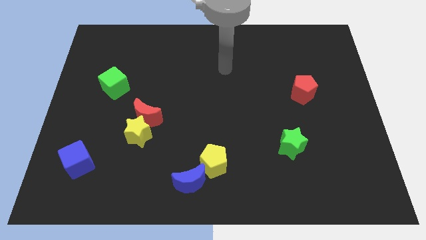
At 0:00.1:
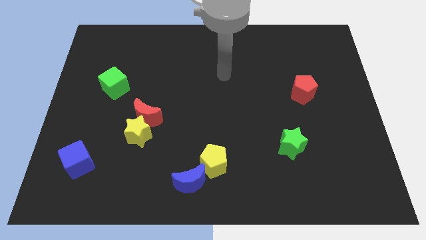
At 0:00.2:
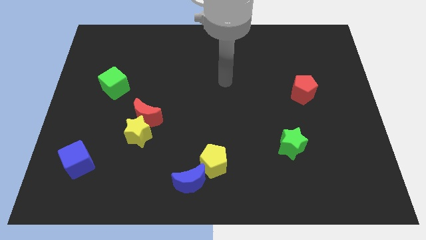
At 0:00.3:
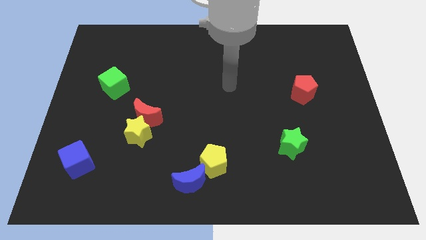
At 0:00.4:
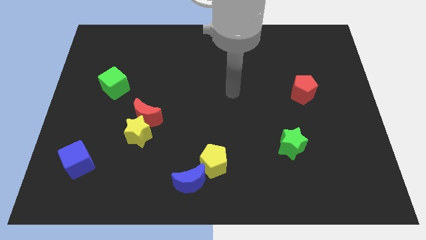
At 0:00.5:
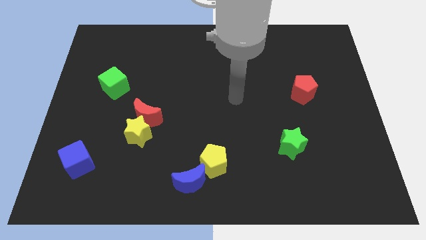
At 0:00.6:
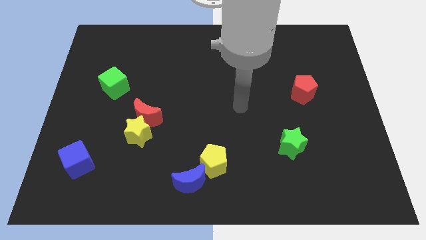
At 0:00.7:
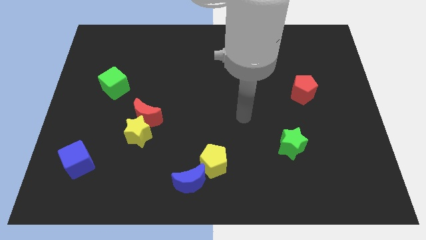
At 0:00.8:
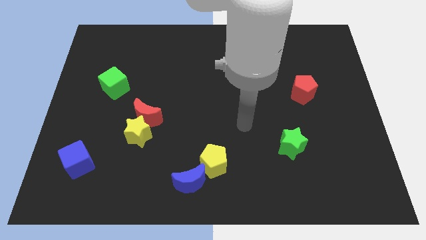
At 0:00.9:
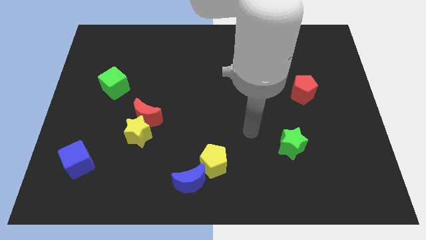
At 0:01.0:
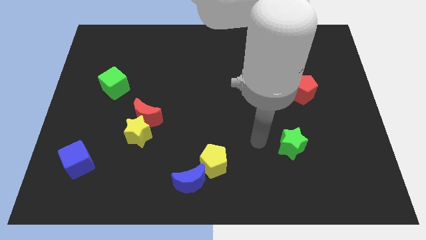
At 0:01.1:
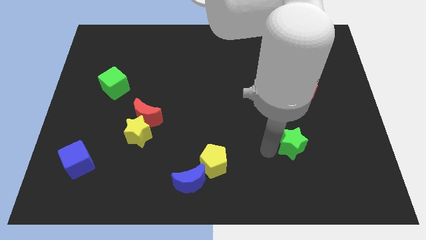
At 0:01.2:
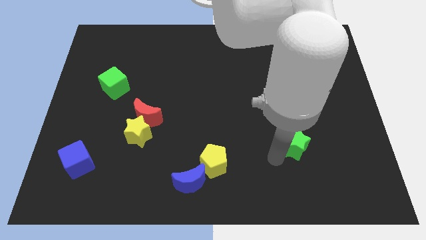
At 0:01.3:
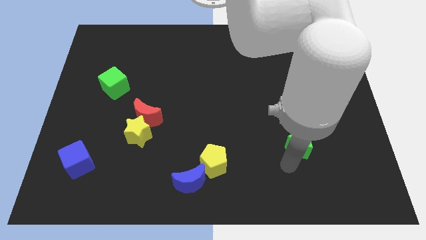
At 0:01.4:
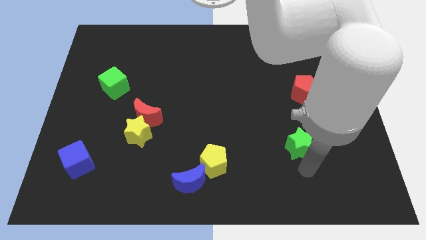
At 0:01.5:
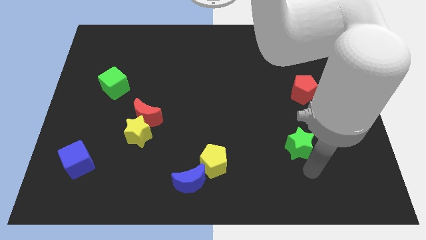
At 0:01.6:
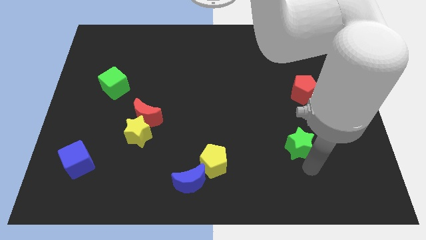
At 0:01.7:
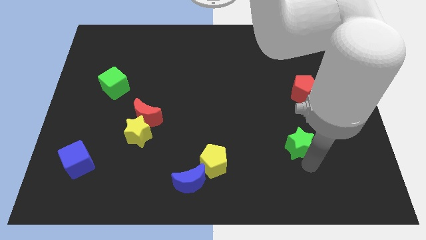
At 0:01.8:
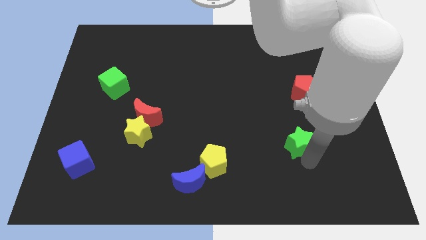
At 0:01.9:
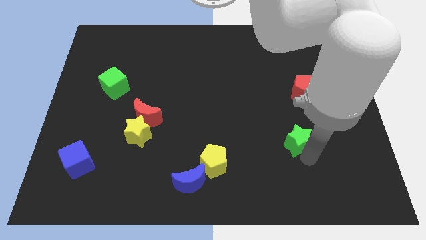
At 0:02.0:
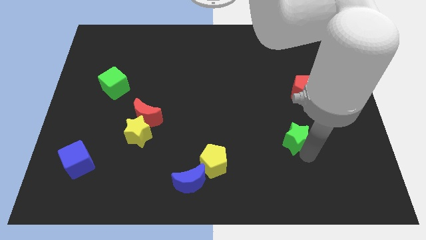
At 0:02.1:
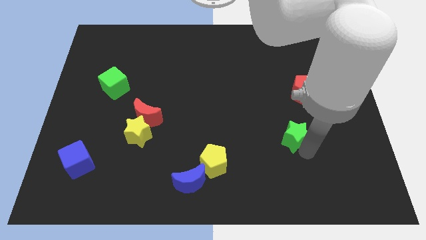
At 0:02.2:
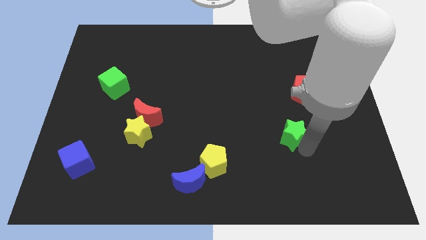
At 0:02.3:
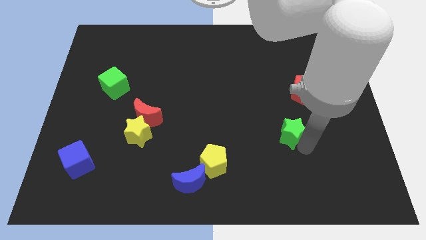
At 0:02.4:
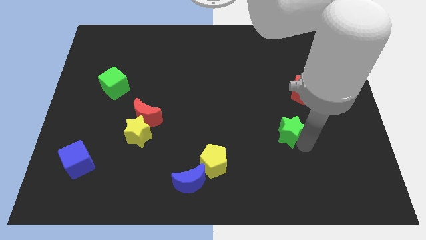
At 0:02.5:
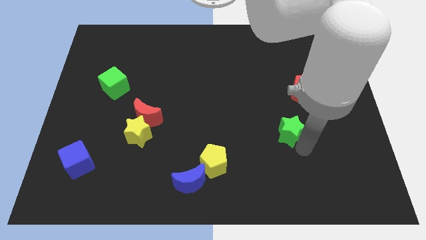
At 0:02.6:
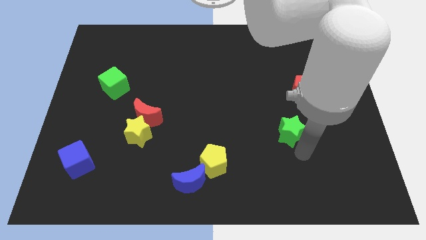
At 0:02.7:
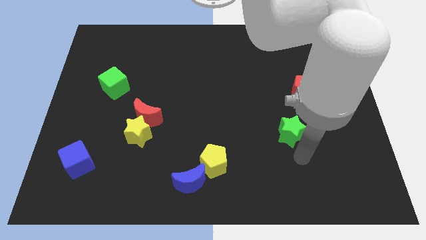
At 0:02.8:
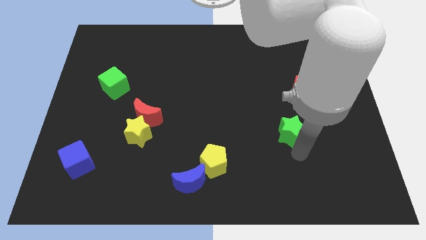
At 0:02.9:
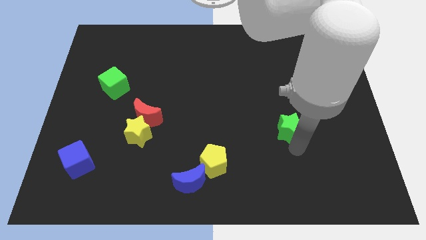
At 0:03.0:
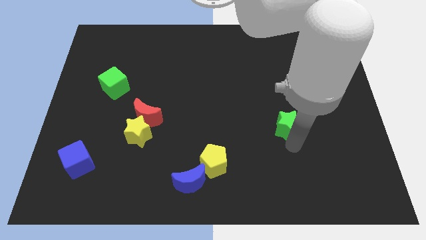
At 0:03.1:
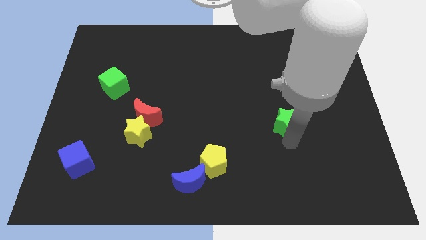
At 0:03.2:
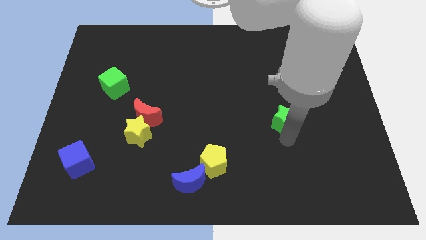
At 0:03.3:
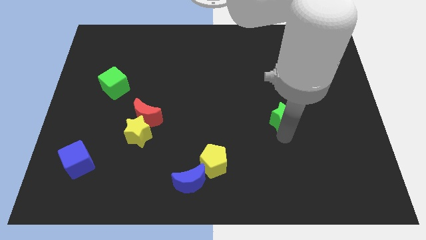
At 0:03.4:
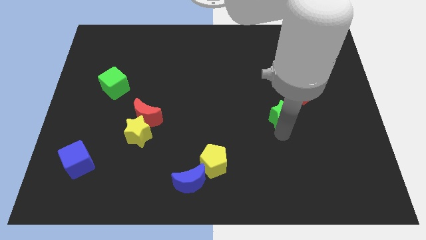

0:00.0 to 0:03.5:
move the green star slightly up

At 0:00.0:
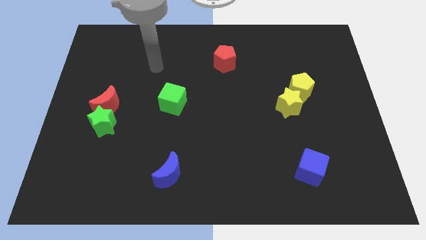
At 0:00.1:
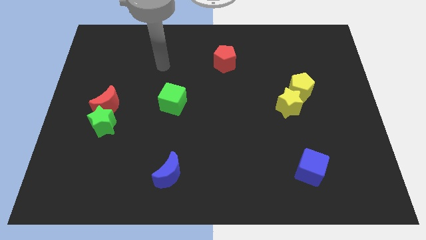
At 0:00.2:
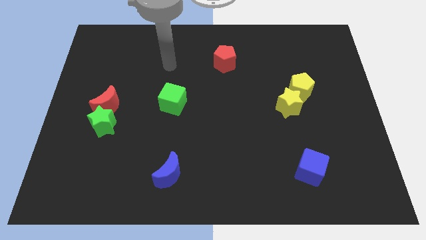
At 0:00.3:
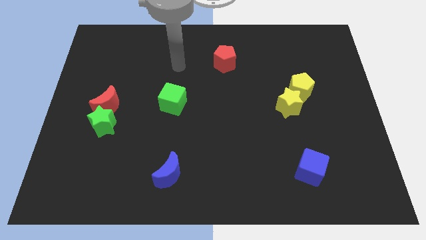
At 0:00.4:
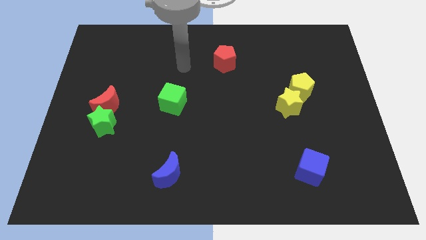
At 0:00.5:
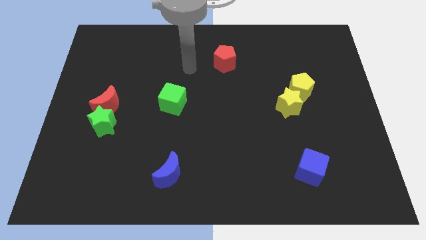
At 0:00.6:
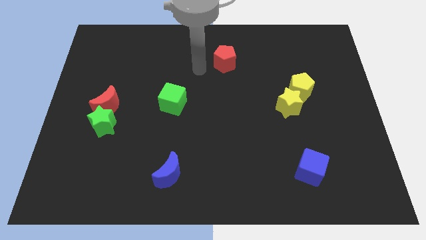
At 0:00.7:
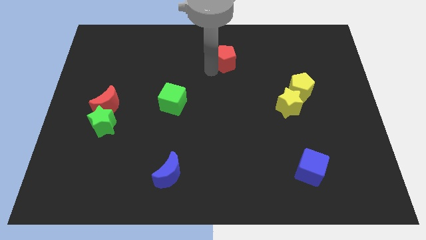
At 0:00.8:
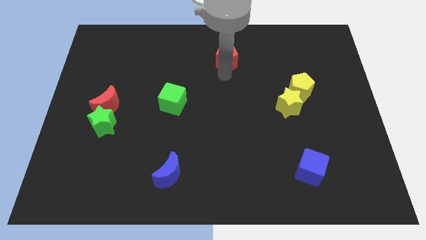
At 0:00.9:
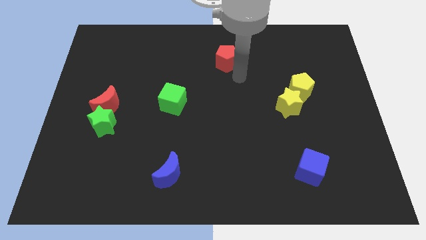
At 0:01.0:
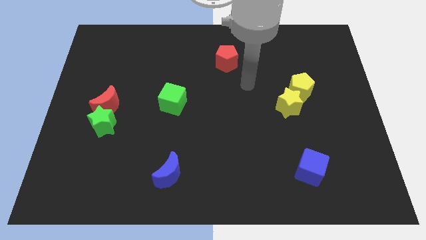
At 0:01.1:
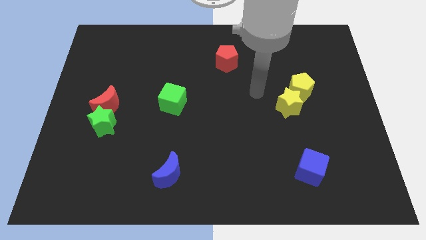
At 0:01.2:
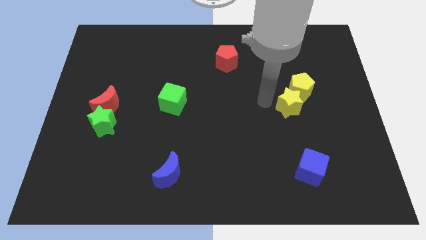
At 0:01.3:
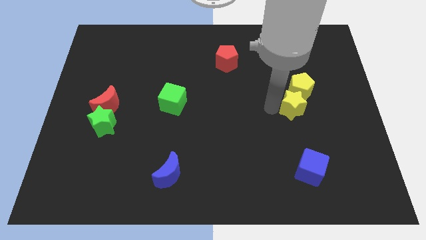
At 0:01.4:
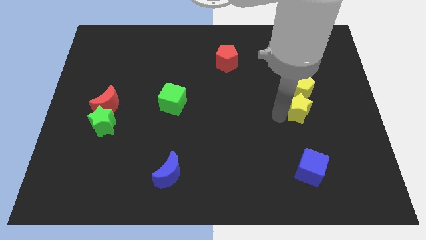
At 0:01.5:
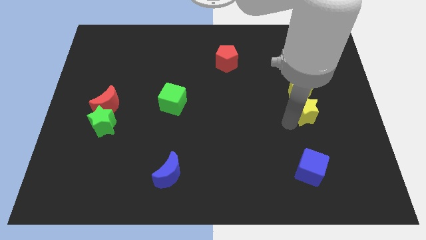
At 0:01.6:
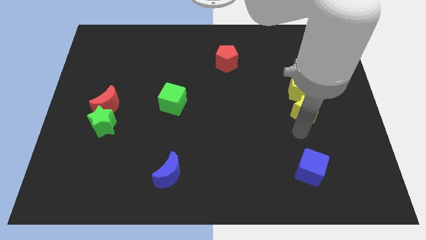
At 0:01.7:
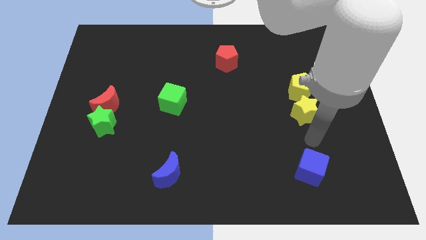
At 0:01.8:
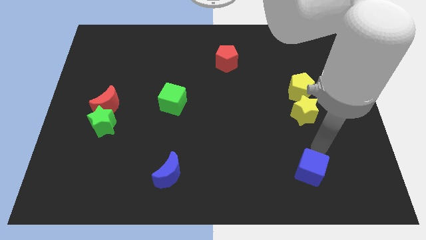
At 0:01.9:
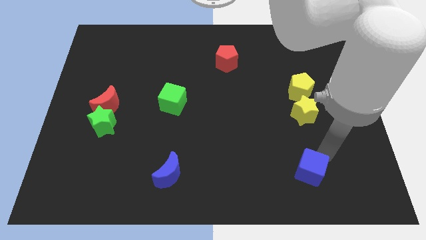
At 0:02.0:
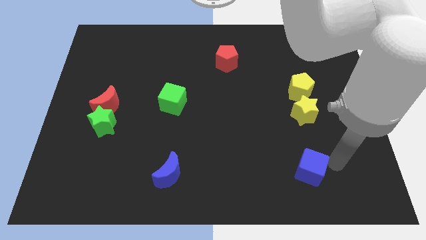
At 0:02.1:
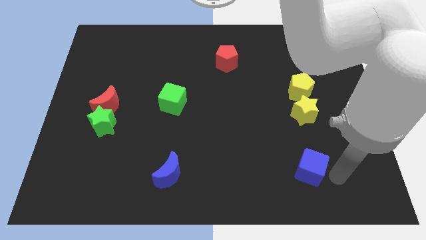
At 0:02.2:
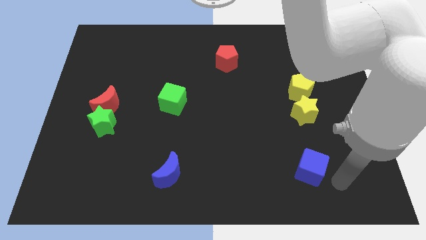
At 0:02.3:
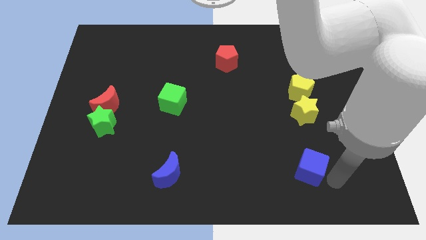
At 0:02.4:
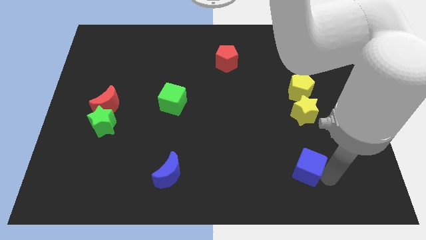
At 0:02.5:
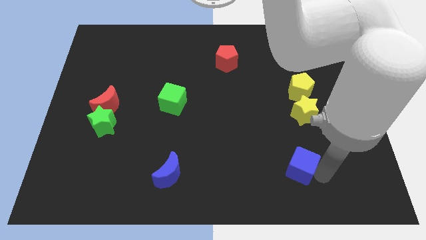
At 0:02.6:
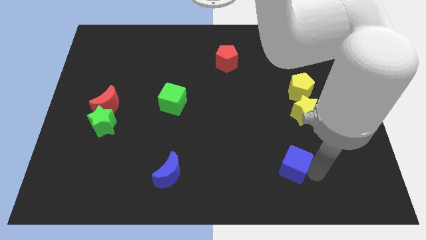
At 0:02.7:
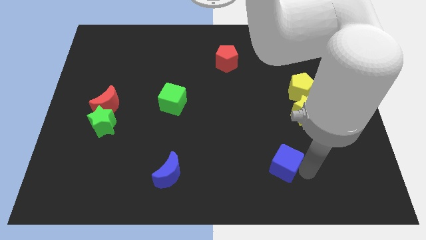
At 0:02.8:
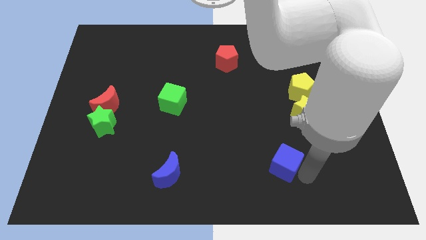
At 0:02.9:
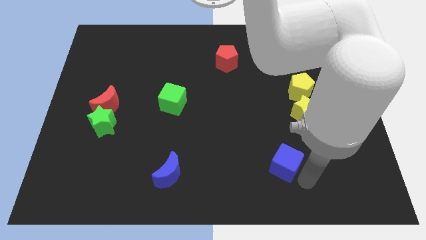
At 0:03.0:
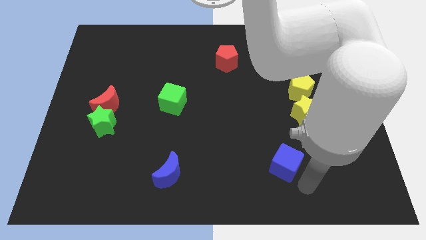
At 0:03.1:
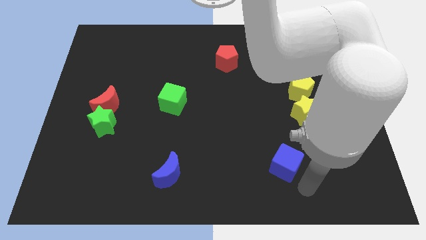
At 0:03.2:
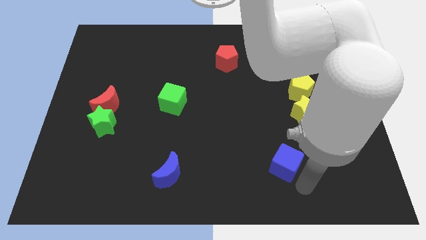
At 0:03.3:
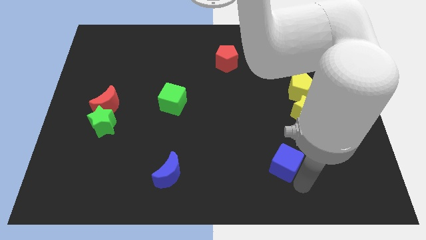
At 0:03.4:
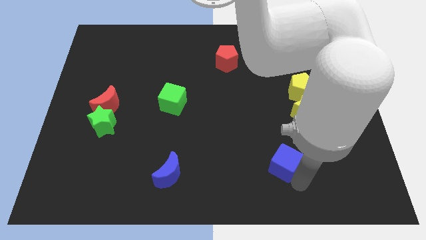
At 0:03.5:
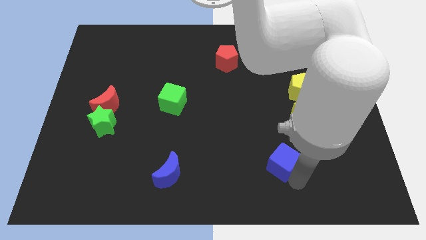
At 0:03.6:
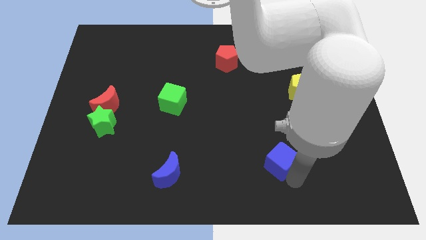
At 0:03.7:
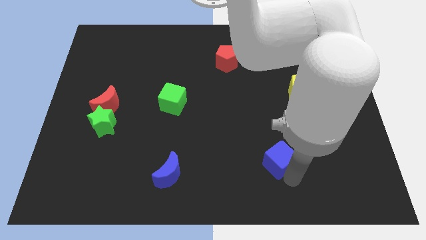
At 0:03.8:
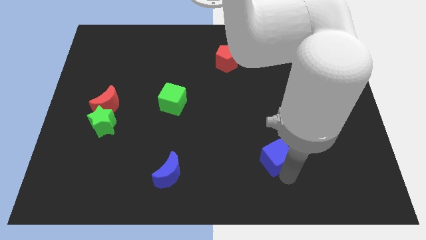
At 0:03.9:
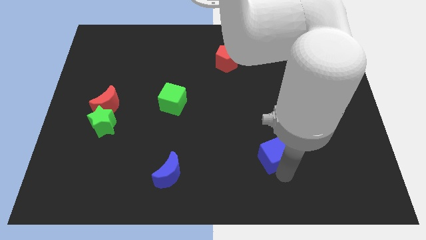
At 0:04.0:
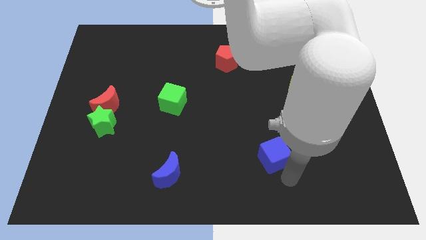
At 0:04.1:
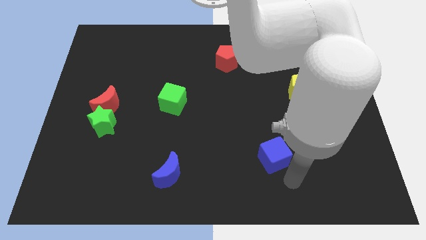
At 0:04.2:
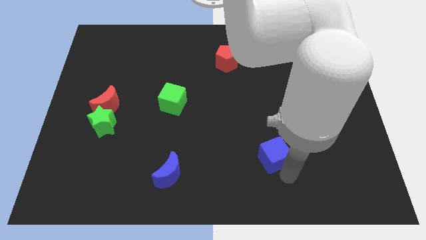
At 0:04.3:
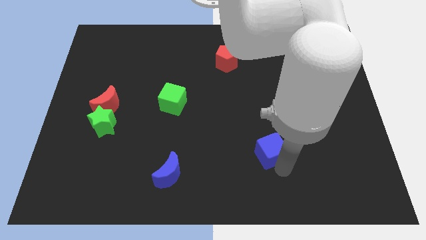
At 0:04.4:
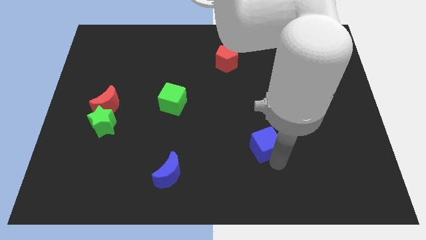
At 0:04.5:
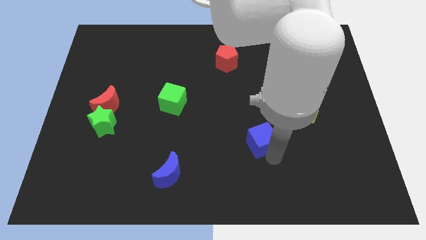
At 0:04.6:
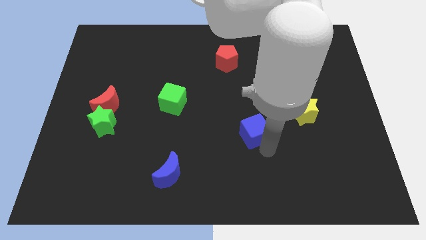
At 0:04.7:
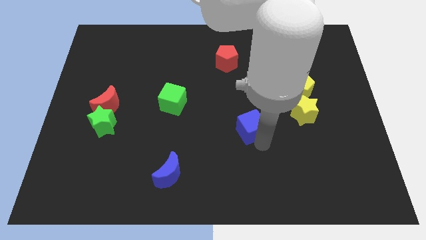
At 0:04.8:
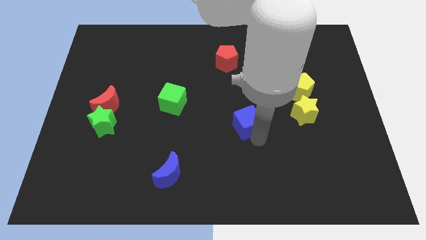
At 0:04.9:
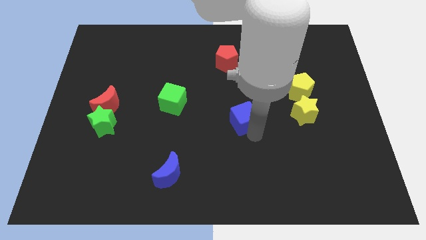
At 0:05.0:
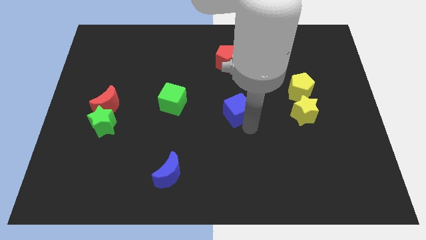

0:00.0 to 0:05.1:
push the blue cube up and to the left
